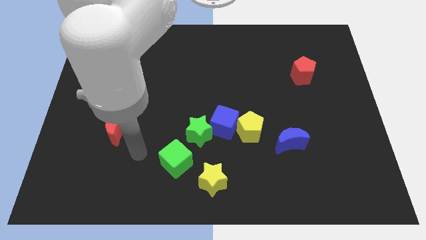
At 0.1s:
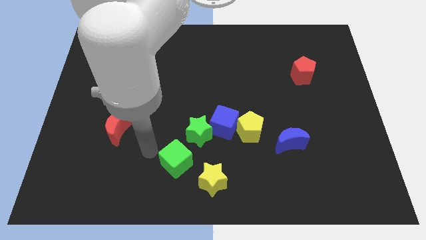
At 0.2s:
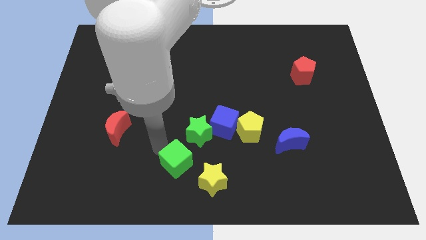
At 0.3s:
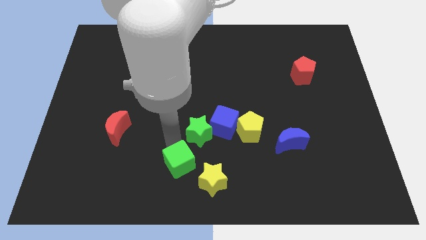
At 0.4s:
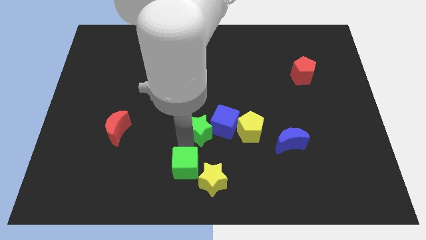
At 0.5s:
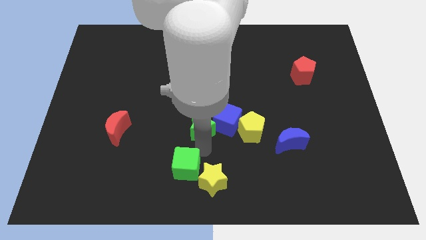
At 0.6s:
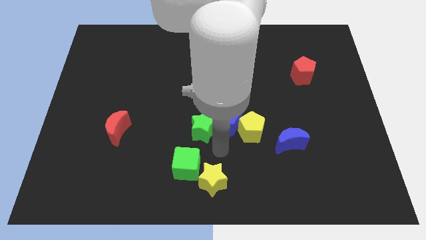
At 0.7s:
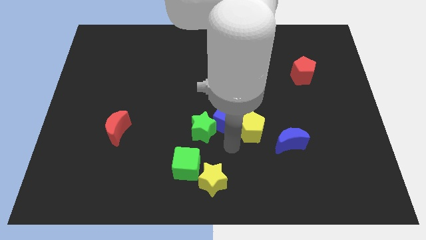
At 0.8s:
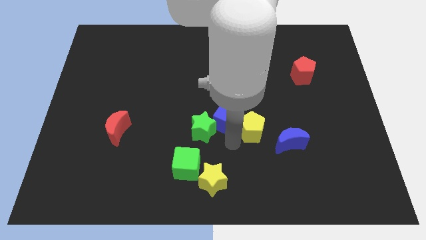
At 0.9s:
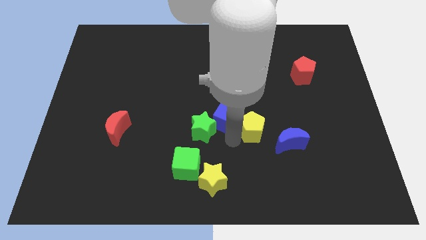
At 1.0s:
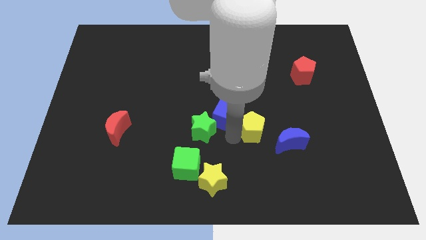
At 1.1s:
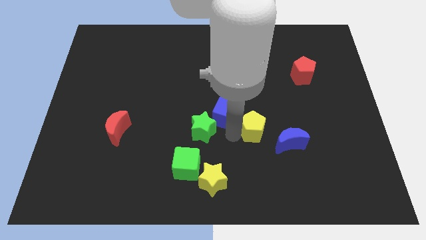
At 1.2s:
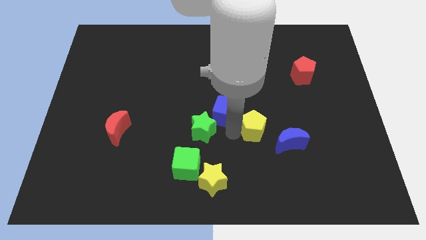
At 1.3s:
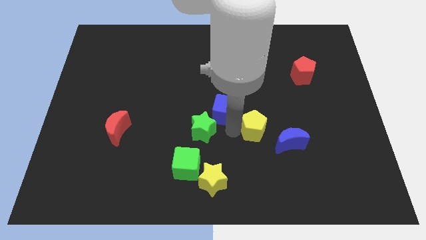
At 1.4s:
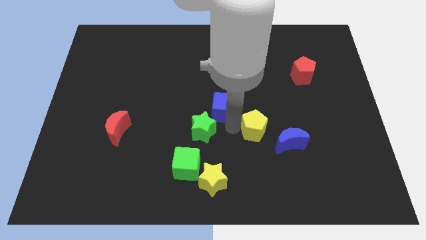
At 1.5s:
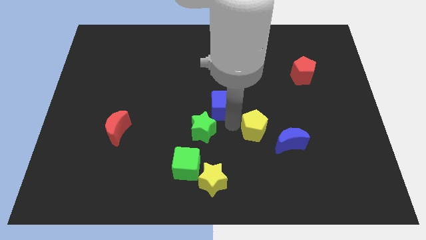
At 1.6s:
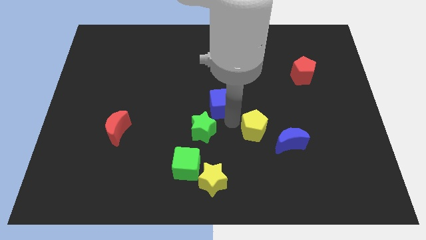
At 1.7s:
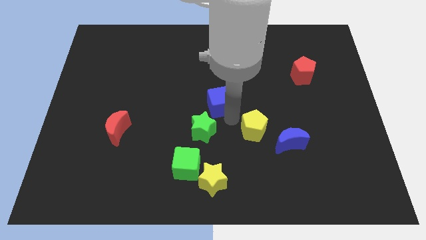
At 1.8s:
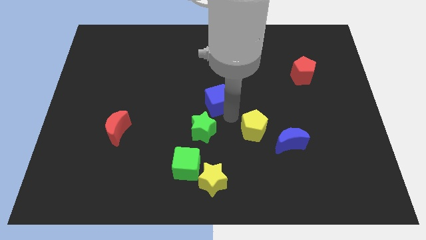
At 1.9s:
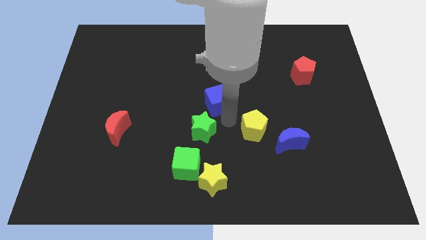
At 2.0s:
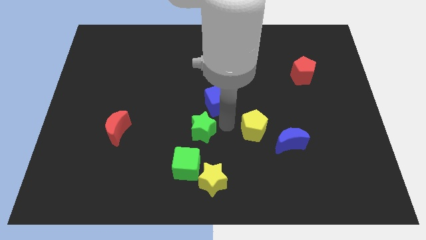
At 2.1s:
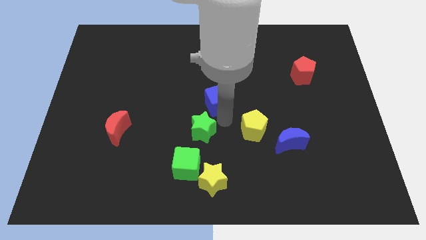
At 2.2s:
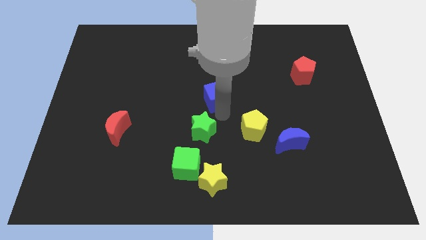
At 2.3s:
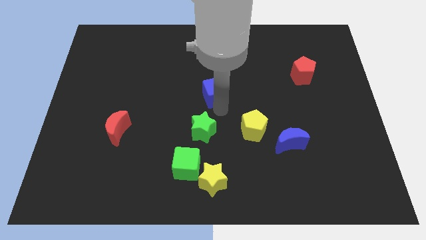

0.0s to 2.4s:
separate the blue cube from the yellow pentagon and green star

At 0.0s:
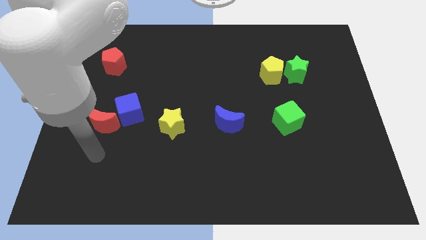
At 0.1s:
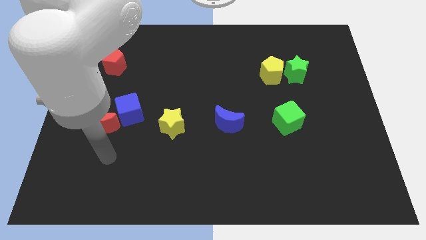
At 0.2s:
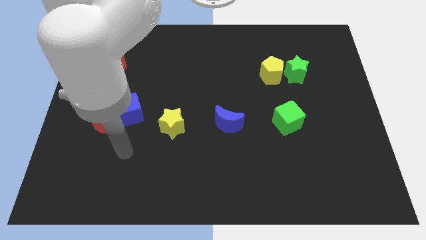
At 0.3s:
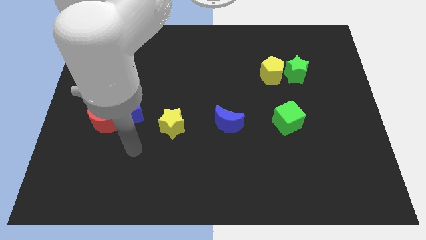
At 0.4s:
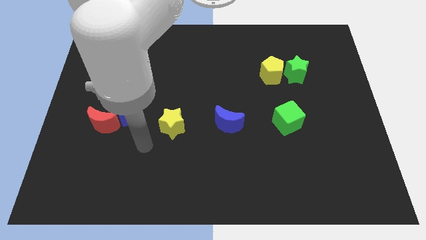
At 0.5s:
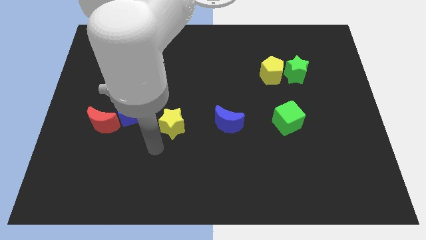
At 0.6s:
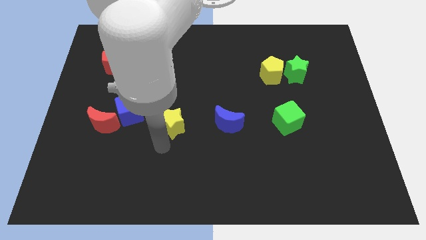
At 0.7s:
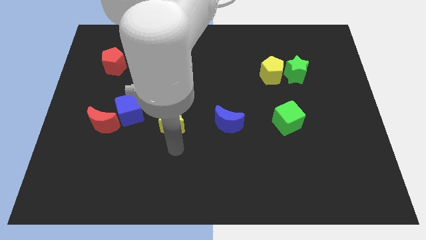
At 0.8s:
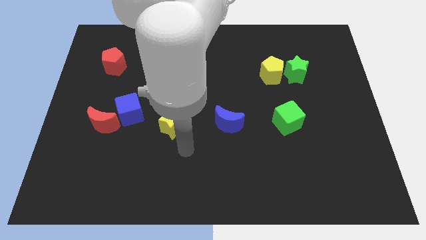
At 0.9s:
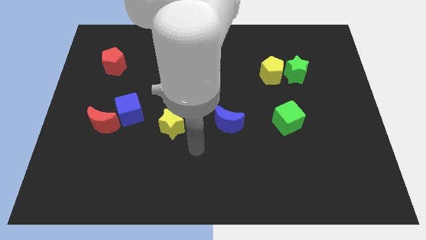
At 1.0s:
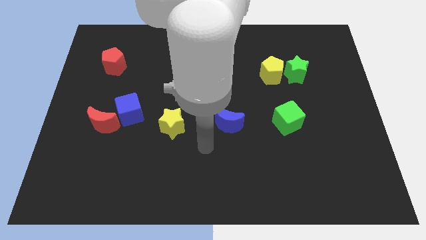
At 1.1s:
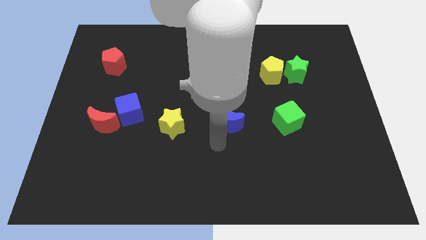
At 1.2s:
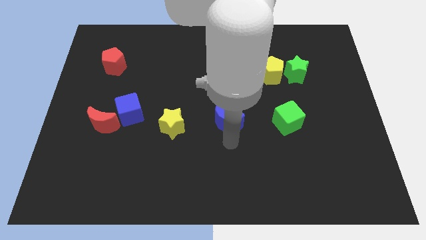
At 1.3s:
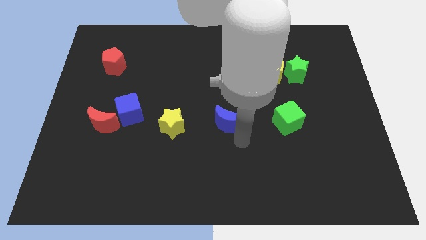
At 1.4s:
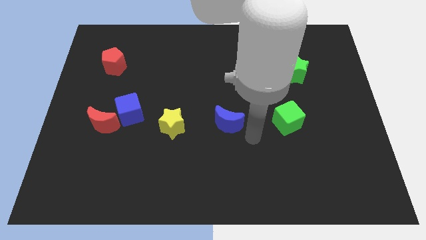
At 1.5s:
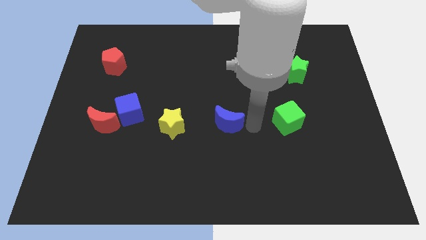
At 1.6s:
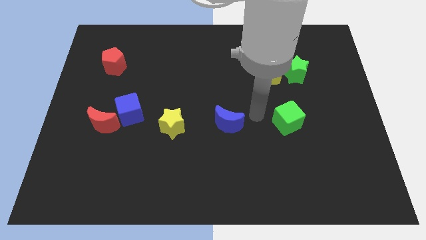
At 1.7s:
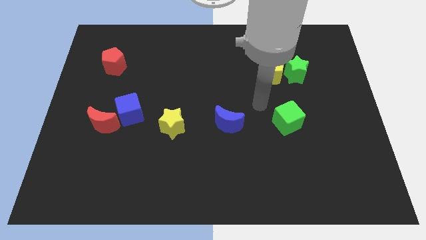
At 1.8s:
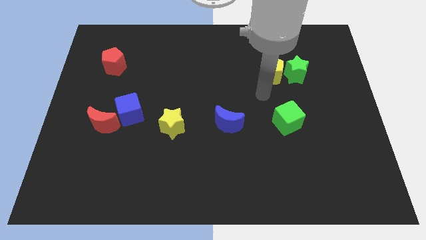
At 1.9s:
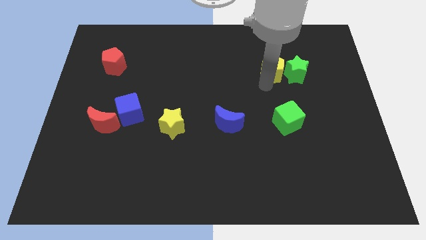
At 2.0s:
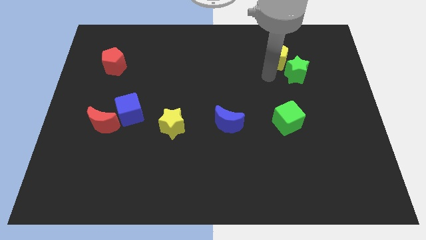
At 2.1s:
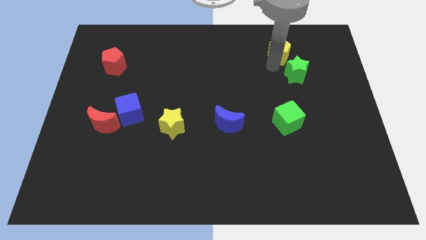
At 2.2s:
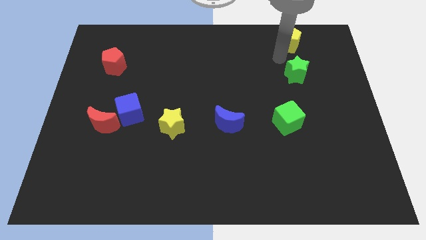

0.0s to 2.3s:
separate the green star from the yellow pentagon

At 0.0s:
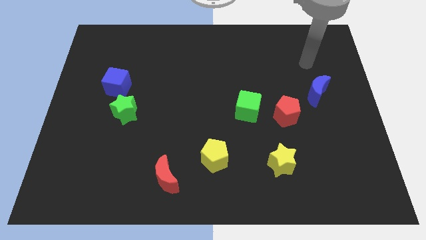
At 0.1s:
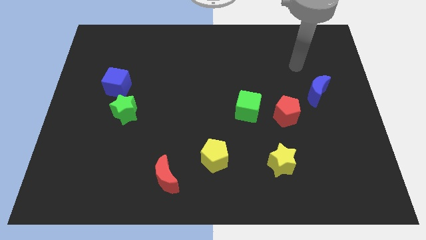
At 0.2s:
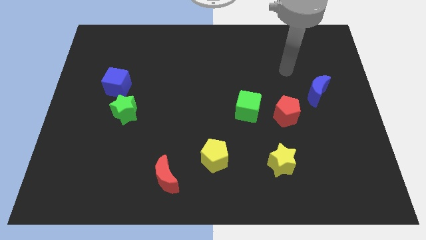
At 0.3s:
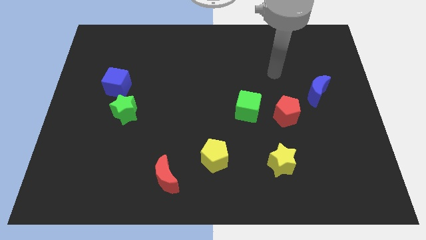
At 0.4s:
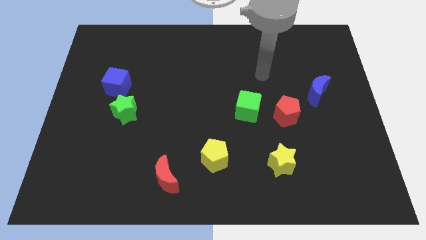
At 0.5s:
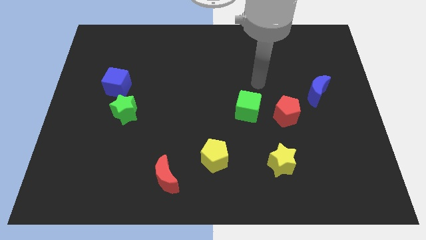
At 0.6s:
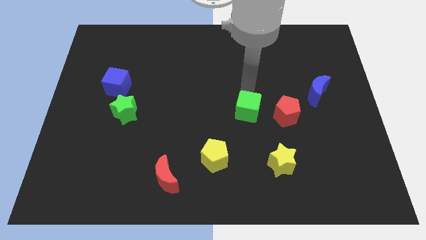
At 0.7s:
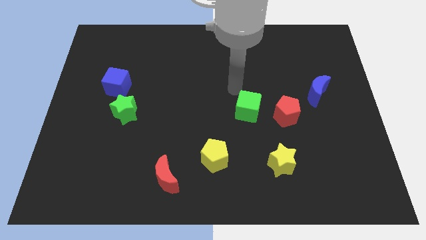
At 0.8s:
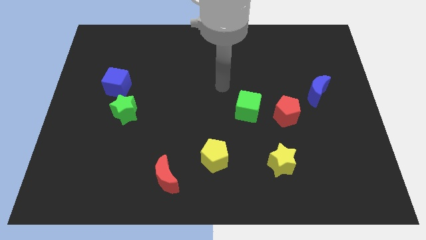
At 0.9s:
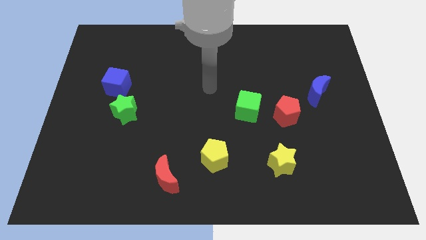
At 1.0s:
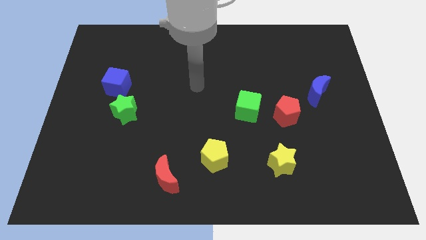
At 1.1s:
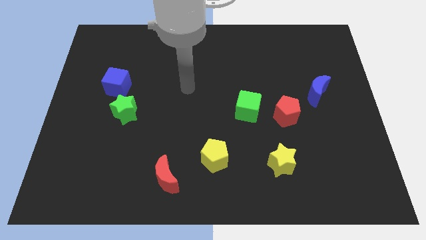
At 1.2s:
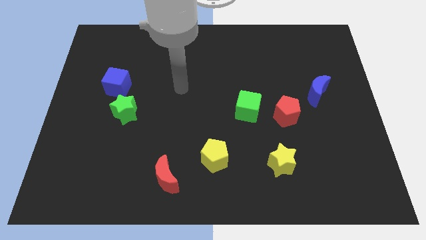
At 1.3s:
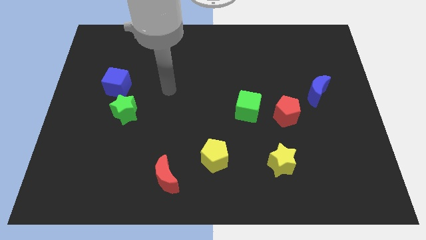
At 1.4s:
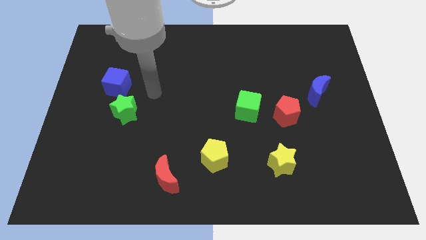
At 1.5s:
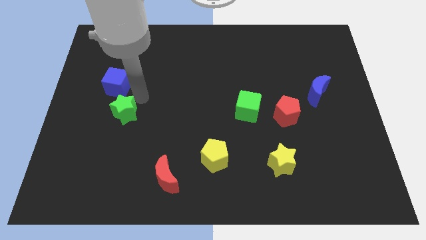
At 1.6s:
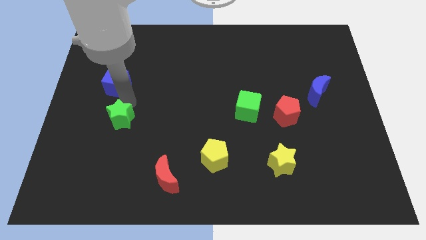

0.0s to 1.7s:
pull the blue cube apart from the green star

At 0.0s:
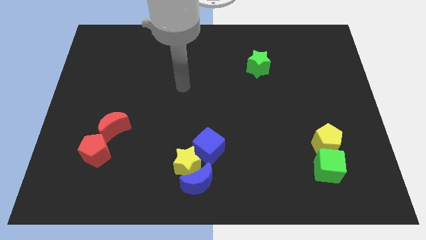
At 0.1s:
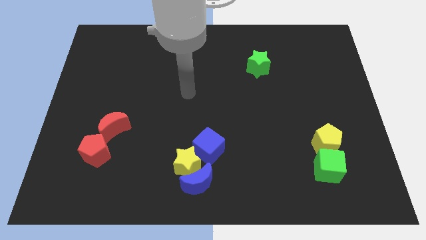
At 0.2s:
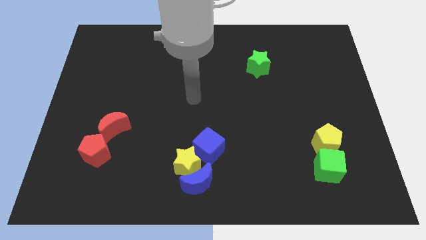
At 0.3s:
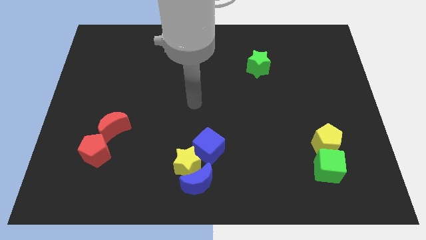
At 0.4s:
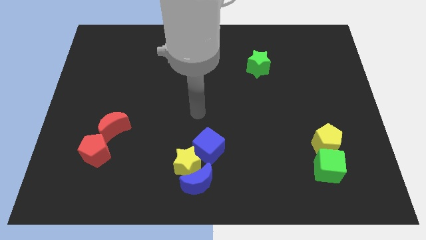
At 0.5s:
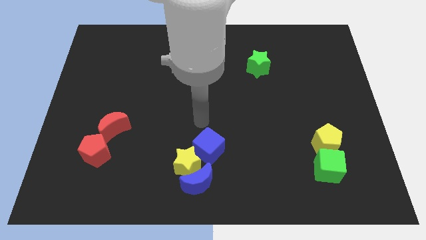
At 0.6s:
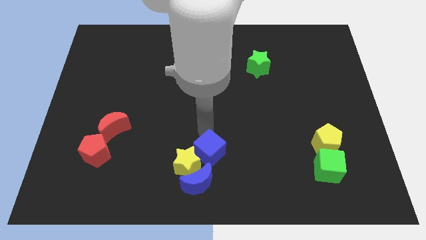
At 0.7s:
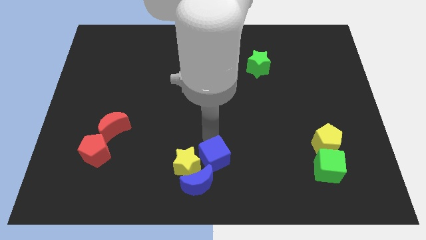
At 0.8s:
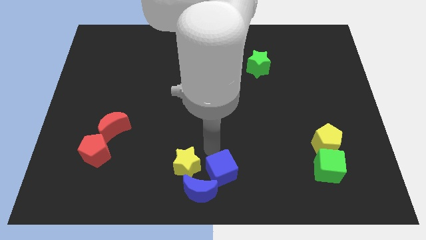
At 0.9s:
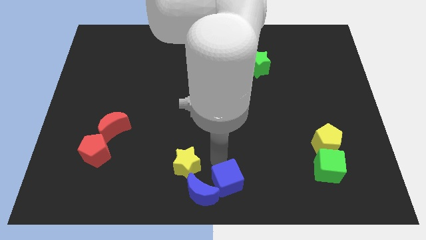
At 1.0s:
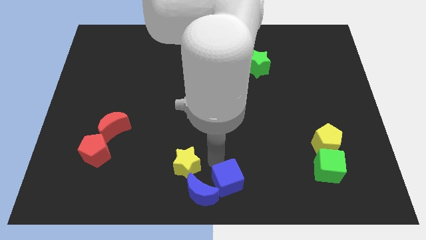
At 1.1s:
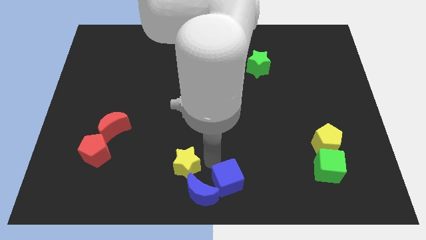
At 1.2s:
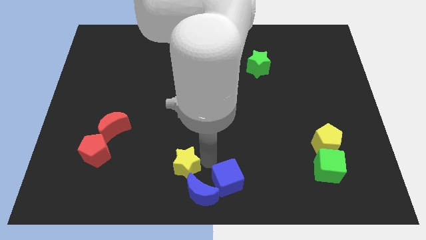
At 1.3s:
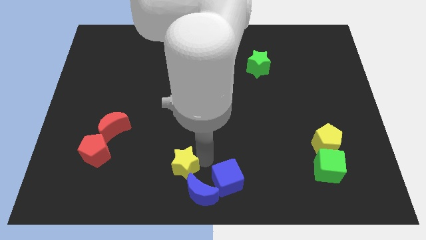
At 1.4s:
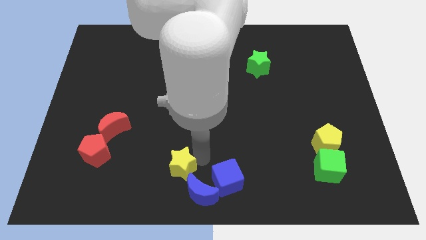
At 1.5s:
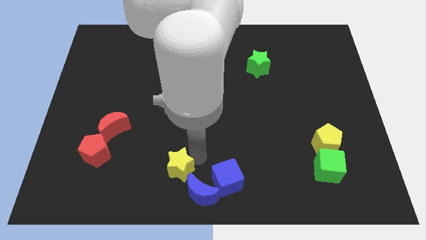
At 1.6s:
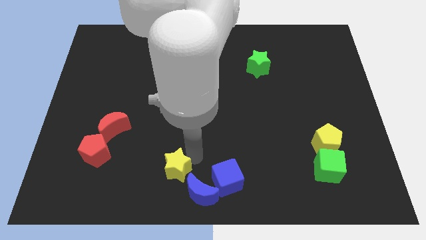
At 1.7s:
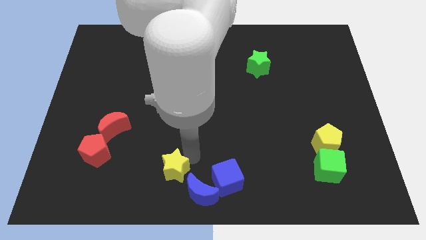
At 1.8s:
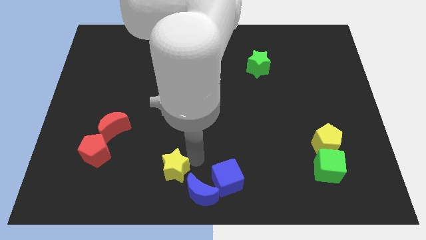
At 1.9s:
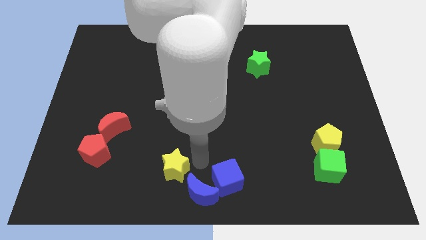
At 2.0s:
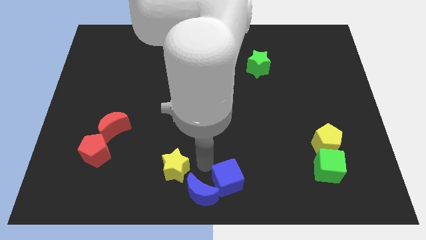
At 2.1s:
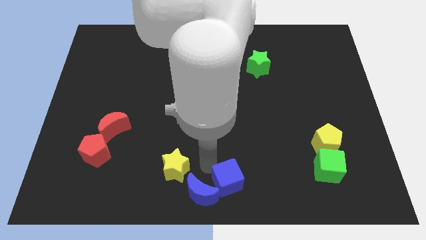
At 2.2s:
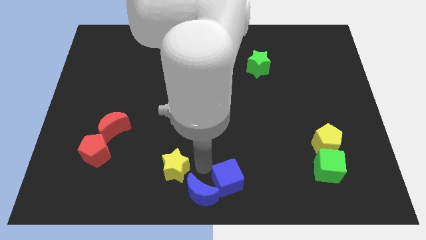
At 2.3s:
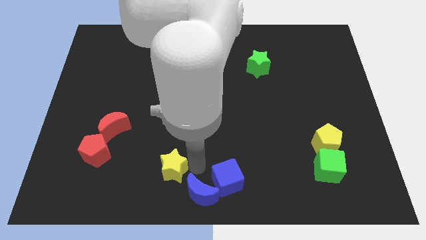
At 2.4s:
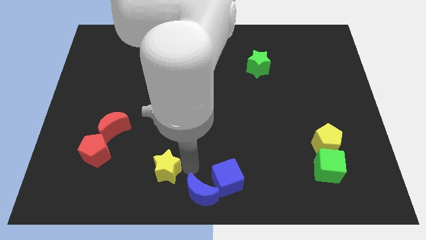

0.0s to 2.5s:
move the yellow star away from the blue moon and blue cube

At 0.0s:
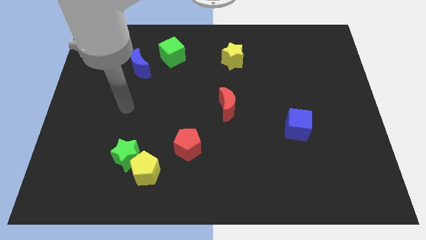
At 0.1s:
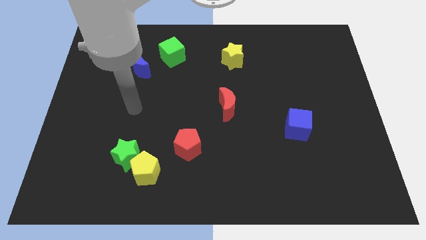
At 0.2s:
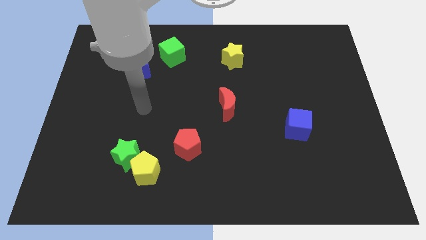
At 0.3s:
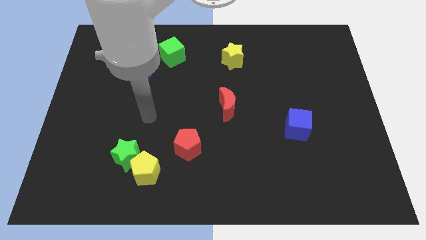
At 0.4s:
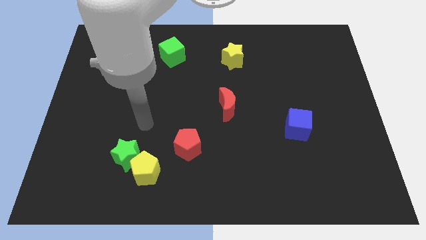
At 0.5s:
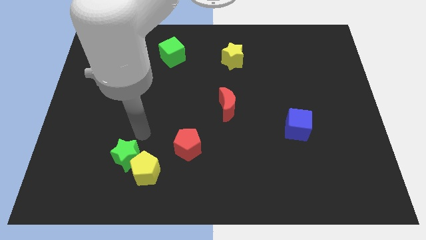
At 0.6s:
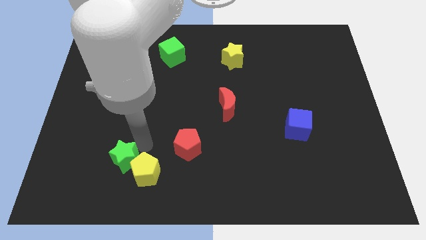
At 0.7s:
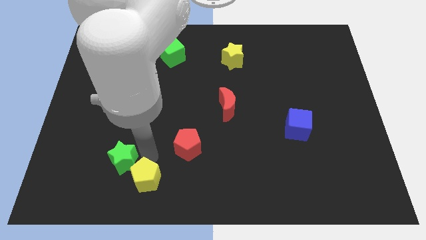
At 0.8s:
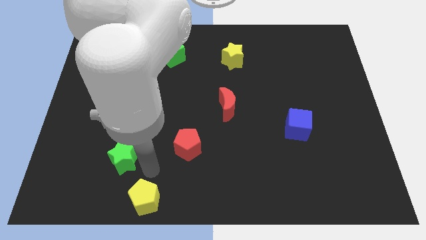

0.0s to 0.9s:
pull the green star apart from the yellow pentagon
